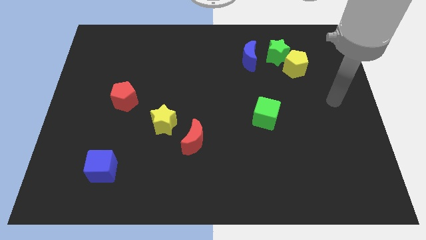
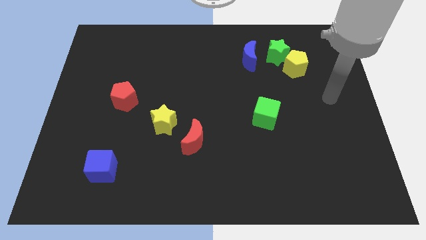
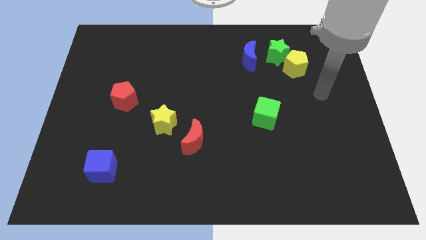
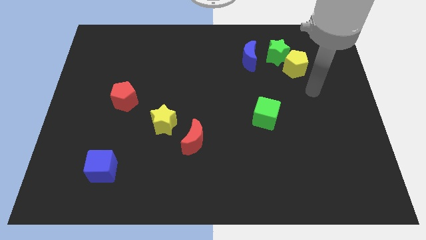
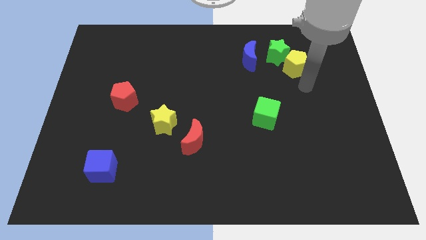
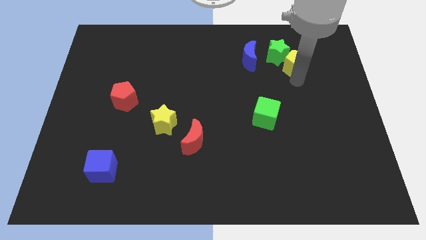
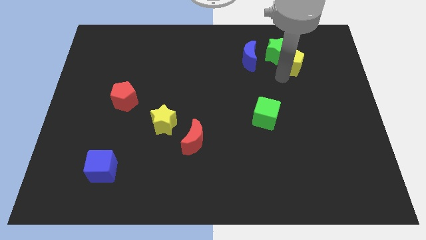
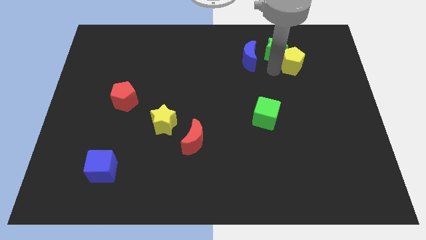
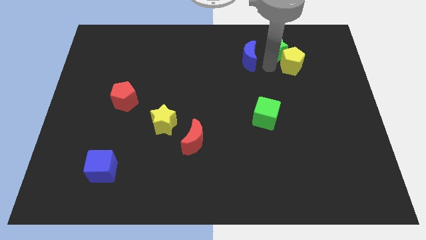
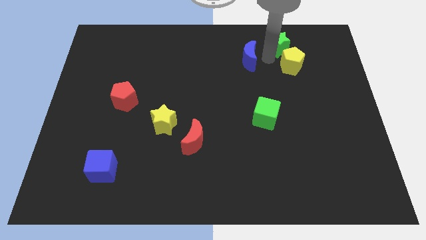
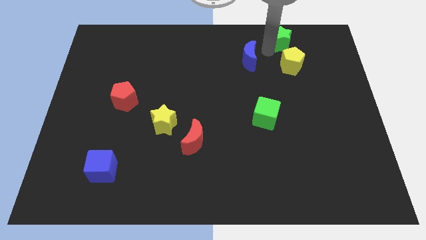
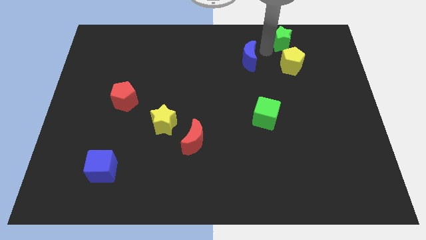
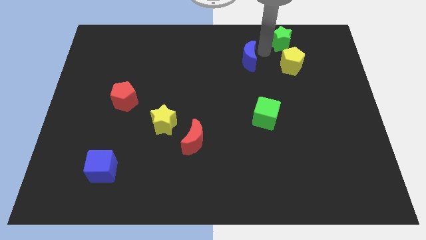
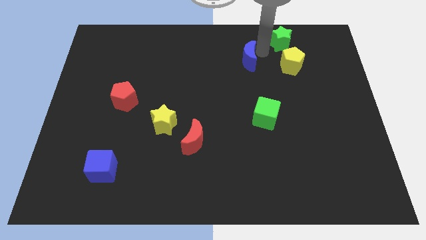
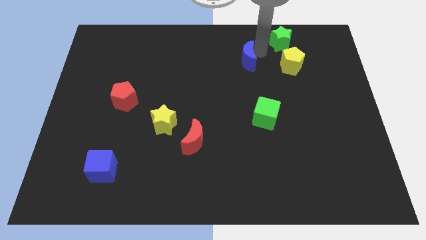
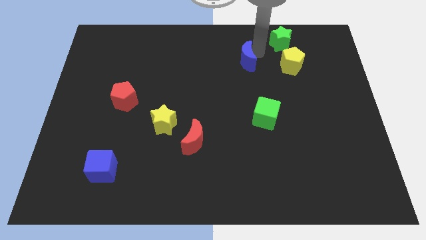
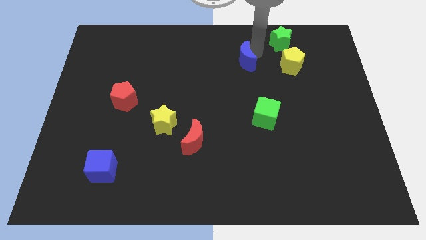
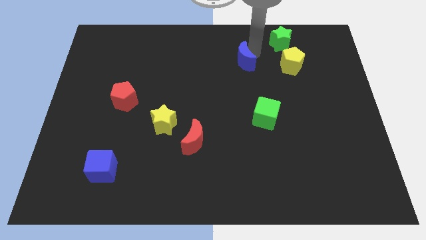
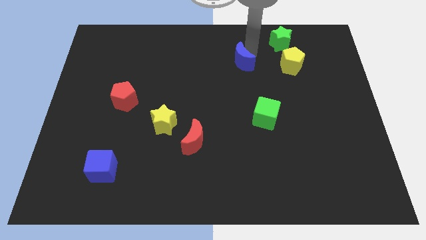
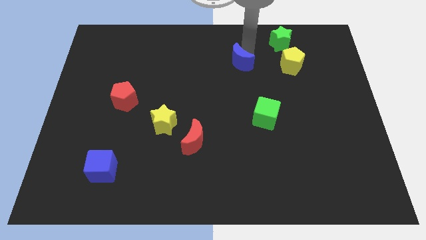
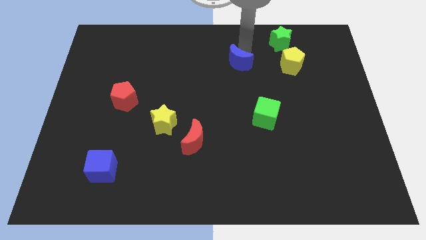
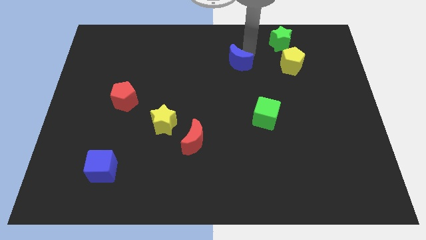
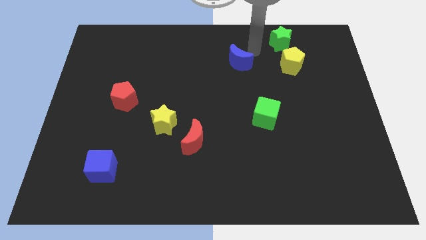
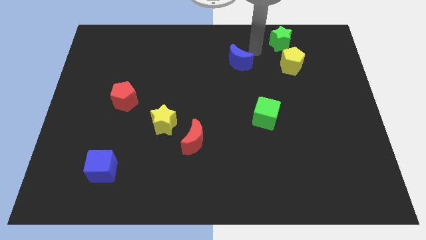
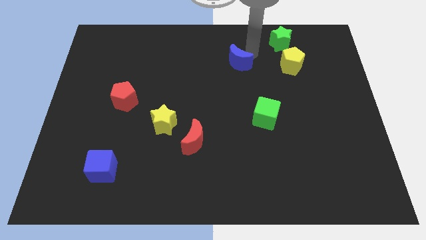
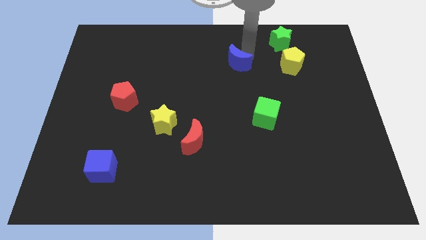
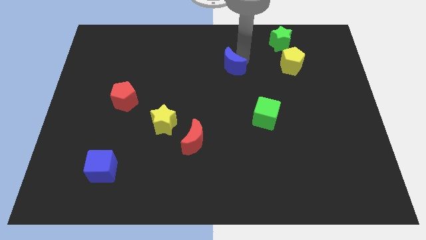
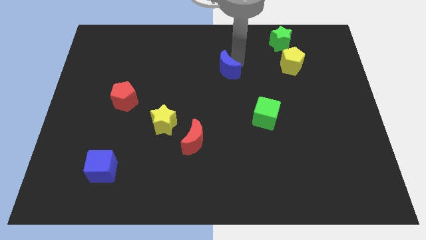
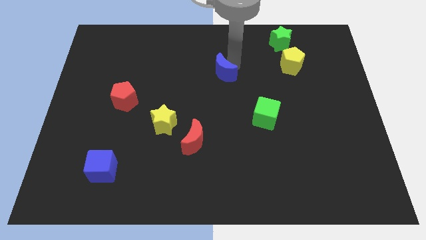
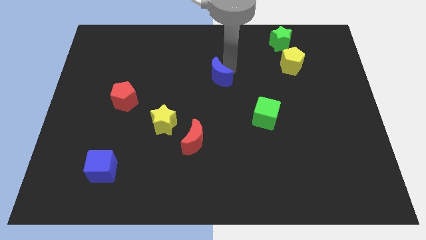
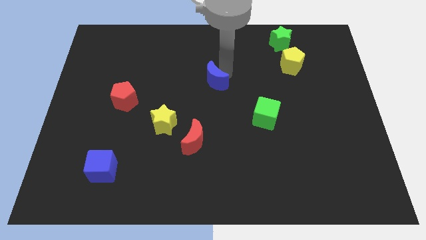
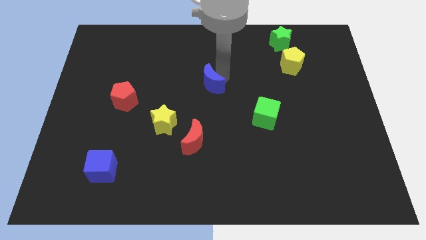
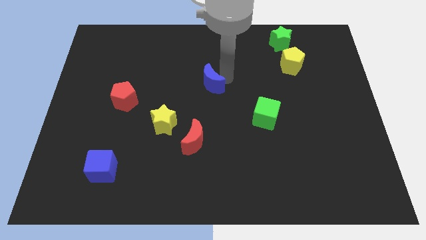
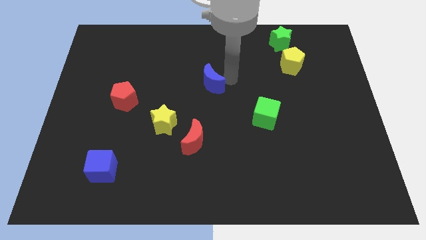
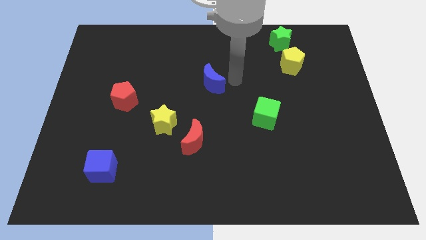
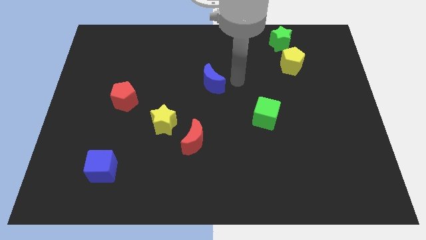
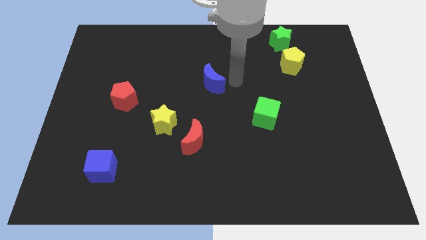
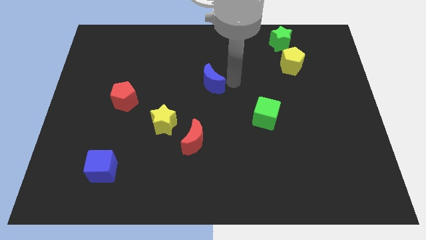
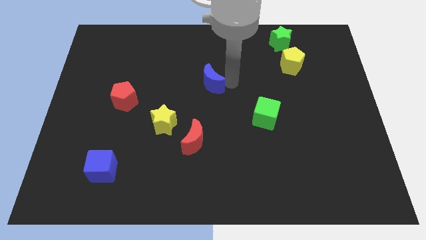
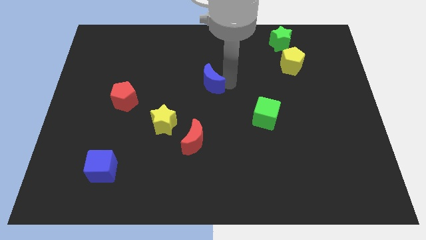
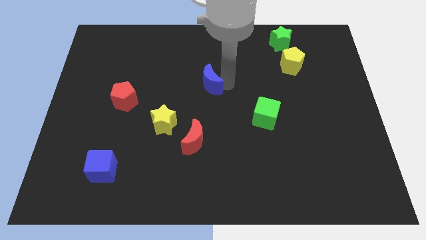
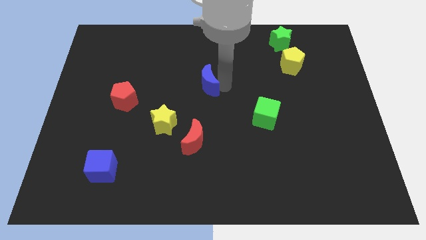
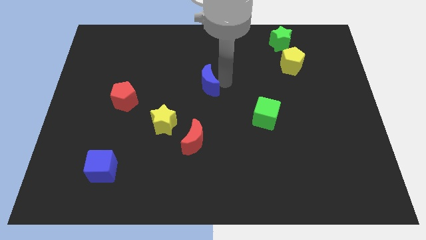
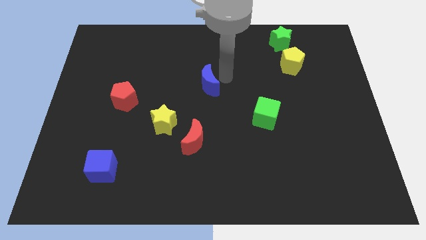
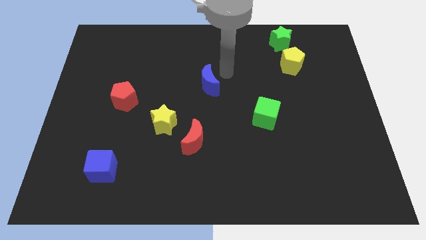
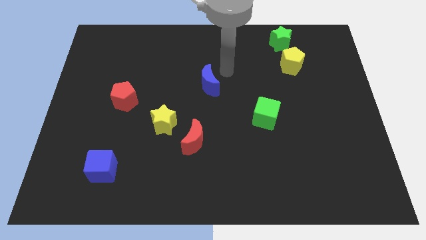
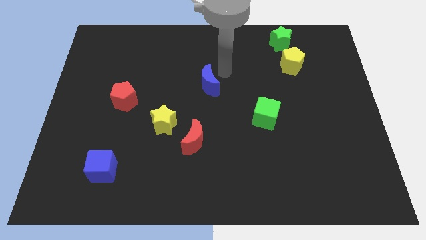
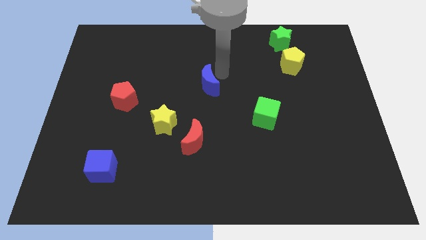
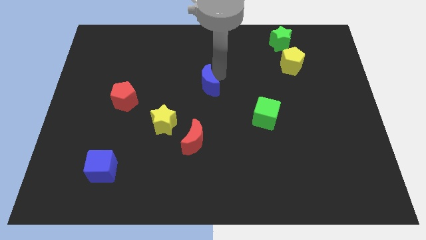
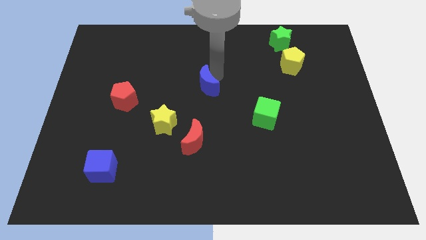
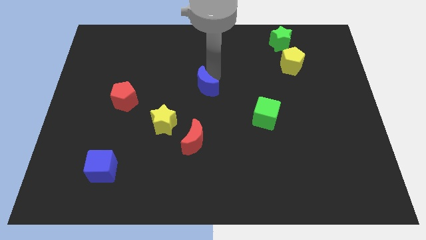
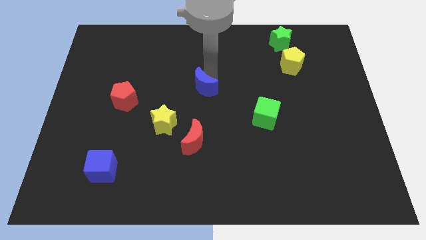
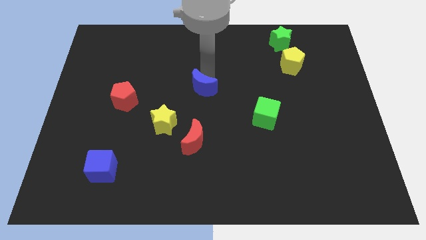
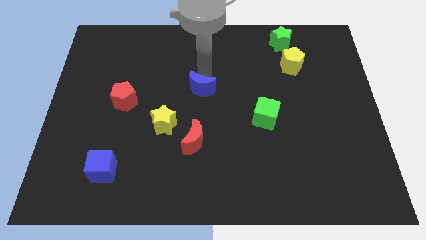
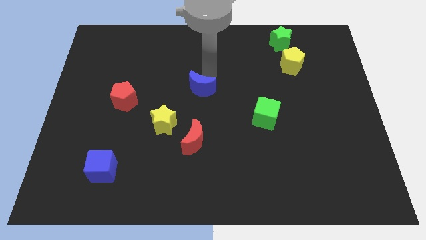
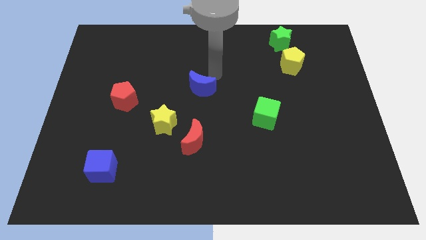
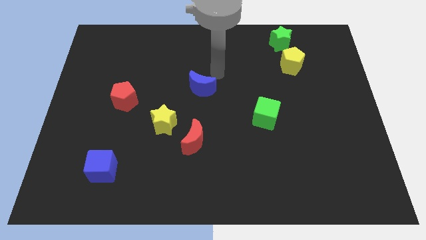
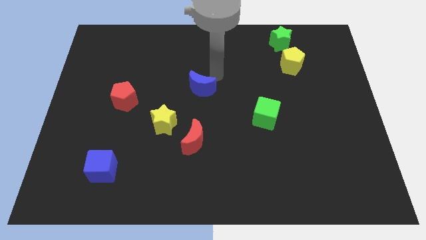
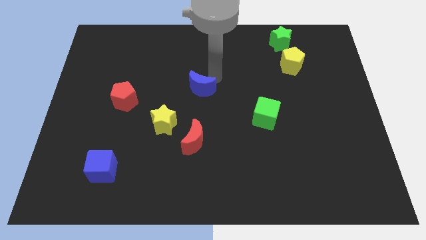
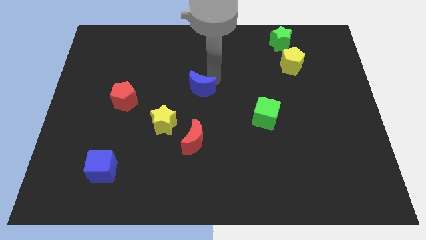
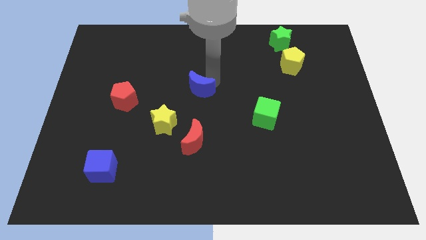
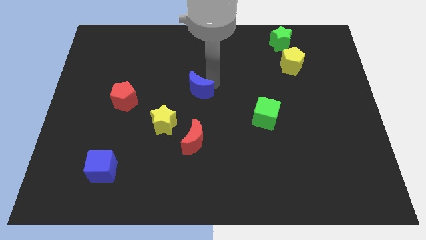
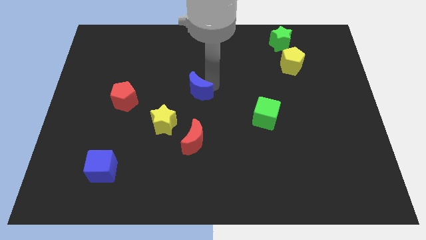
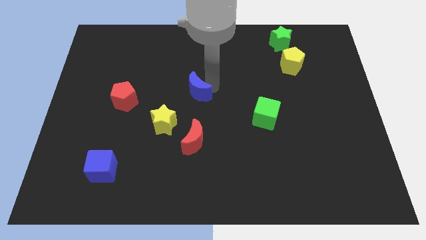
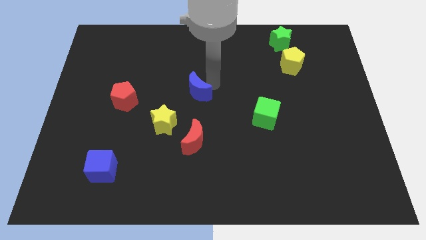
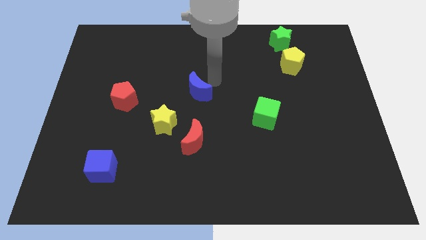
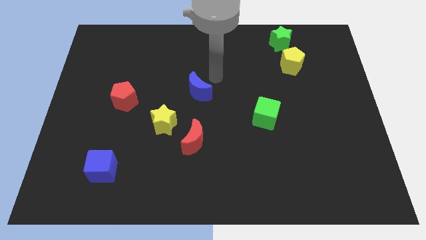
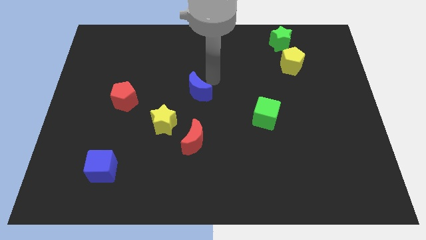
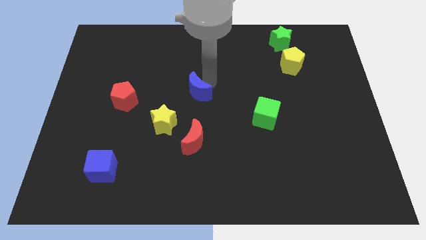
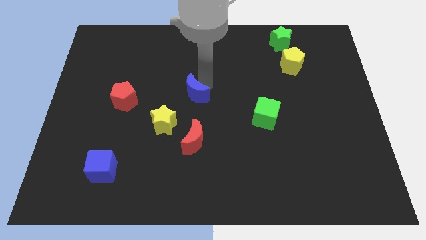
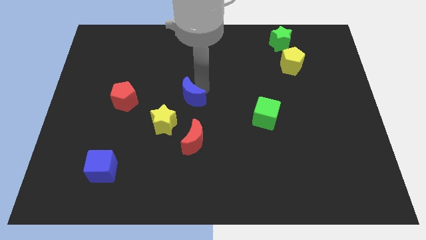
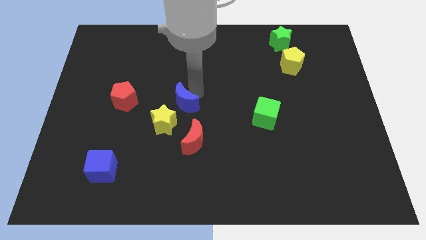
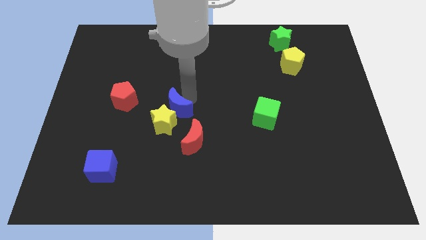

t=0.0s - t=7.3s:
put the blue moon close to the yellow star
